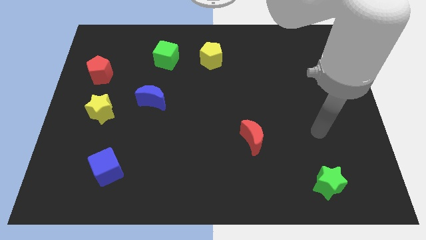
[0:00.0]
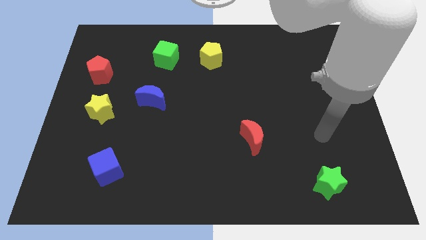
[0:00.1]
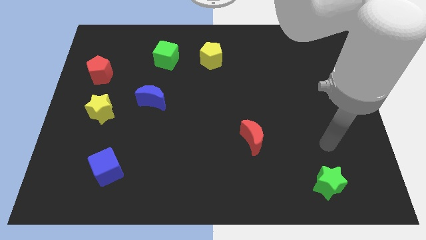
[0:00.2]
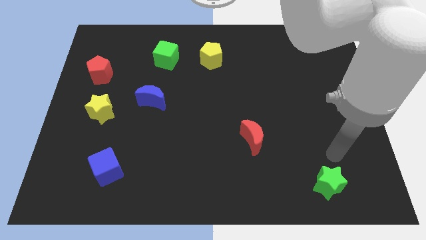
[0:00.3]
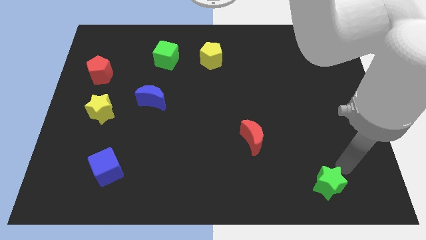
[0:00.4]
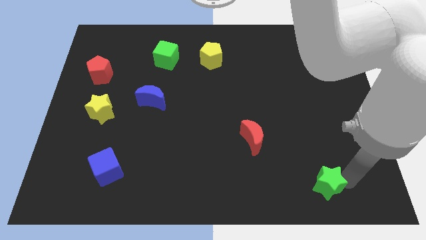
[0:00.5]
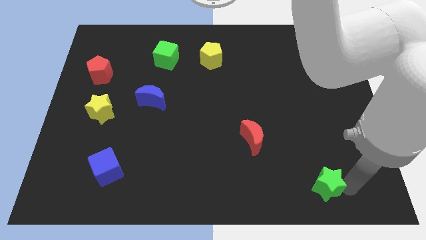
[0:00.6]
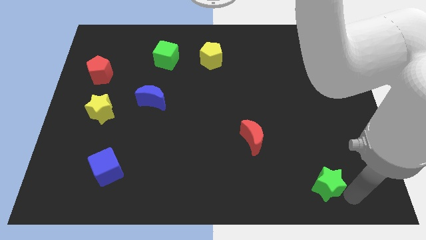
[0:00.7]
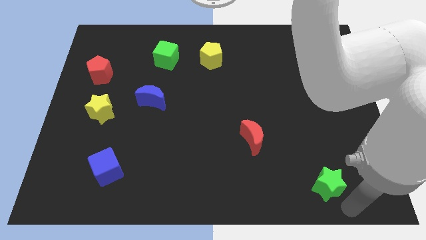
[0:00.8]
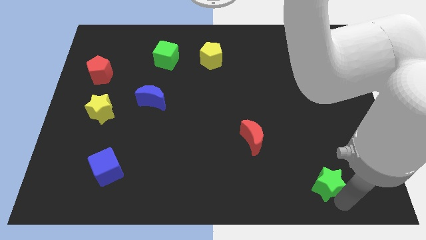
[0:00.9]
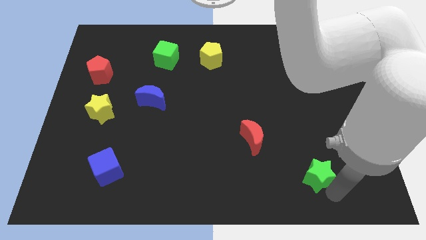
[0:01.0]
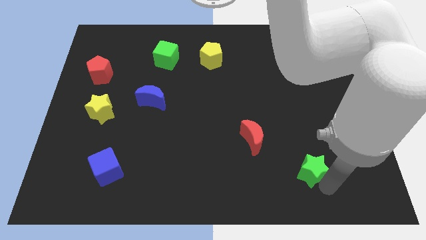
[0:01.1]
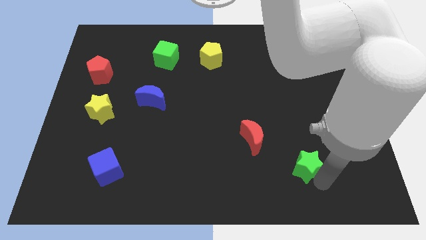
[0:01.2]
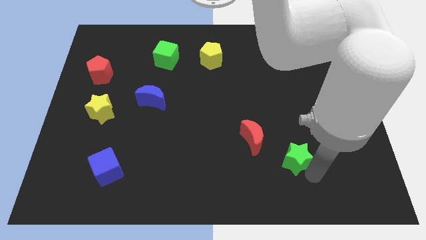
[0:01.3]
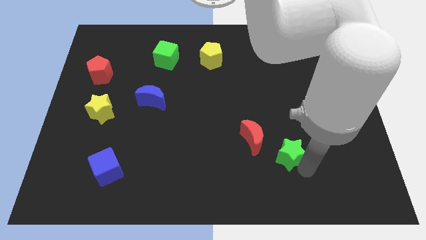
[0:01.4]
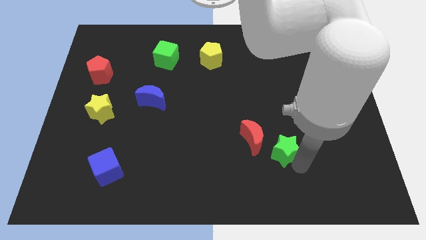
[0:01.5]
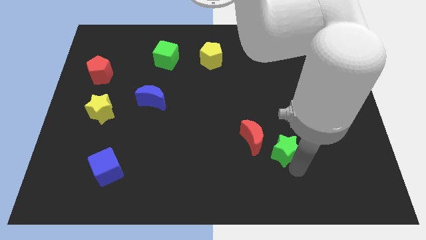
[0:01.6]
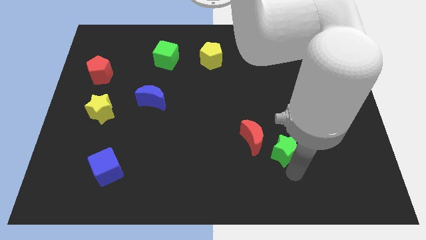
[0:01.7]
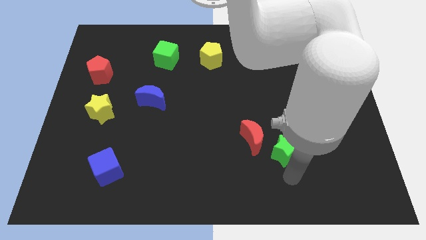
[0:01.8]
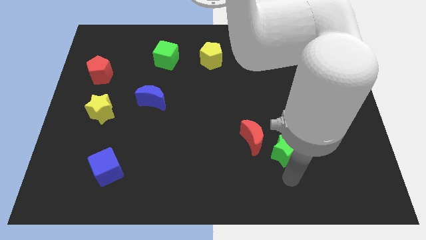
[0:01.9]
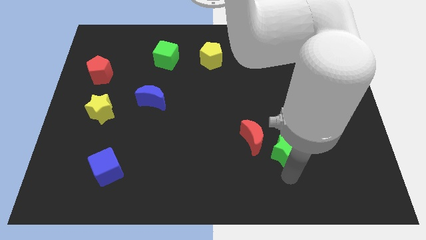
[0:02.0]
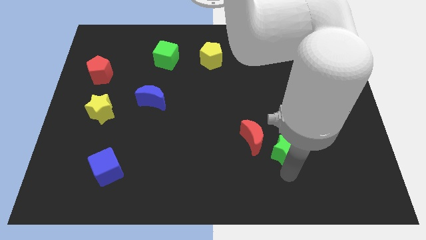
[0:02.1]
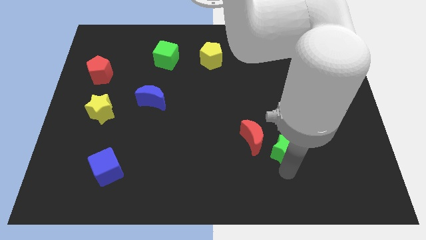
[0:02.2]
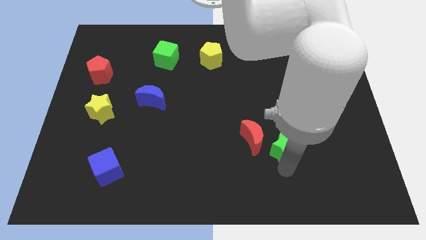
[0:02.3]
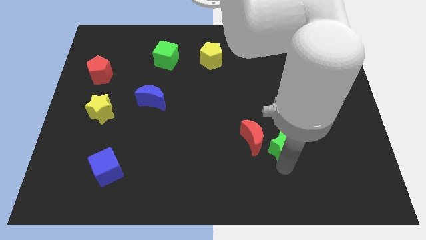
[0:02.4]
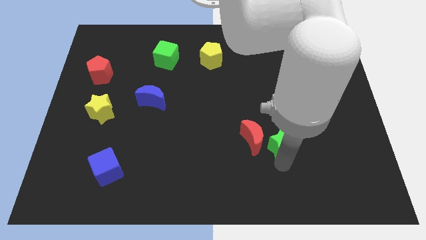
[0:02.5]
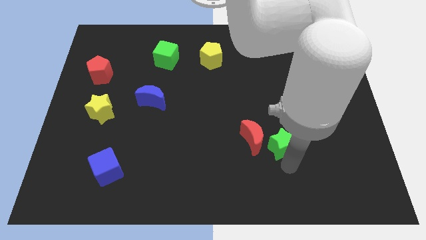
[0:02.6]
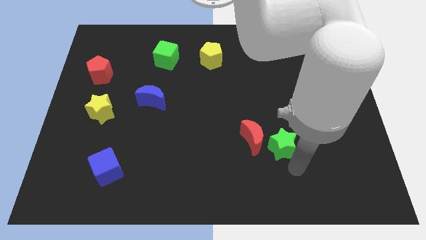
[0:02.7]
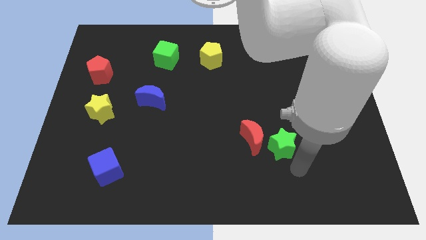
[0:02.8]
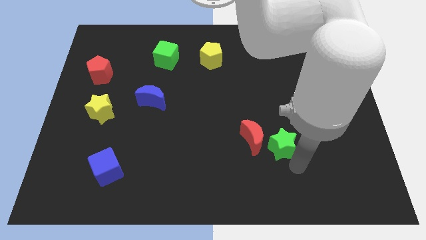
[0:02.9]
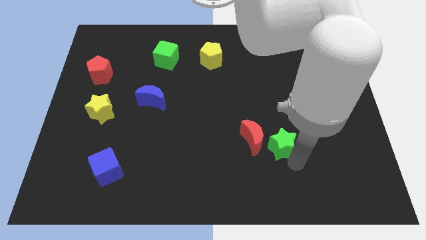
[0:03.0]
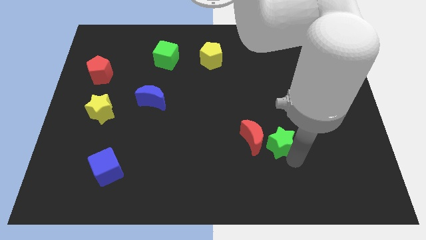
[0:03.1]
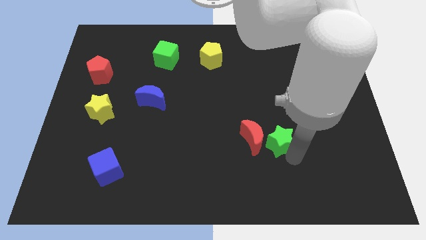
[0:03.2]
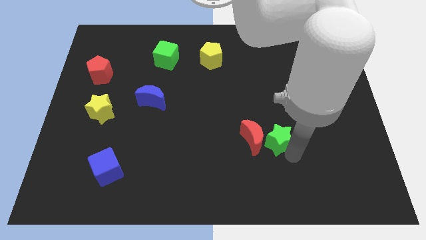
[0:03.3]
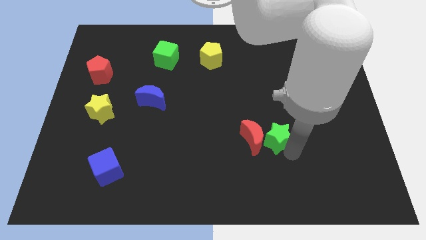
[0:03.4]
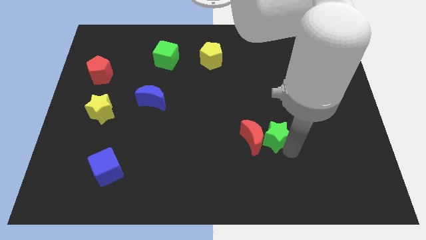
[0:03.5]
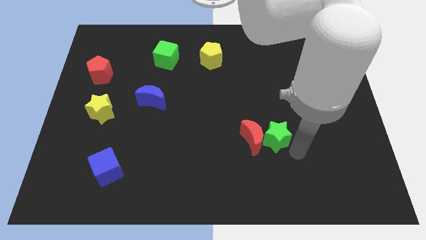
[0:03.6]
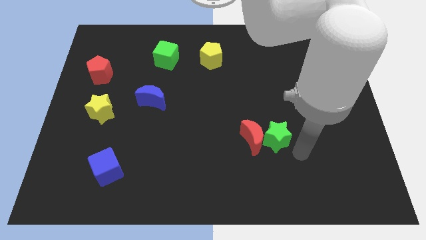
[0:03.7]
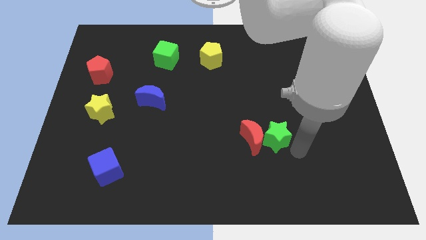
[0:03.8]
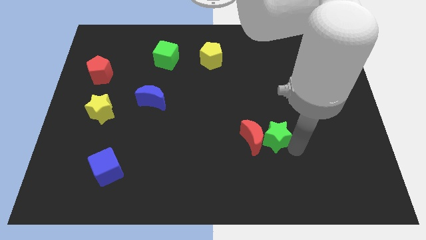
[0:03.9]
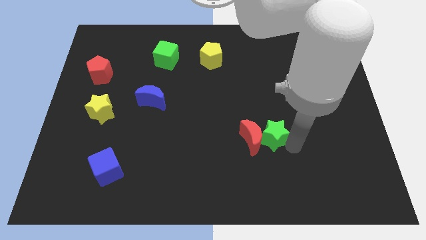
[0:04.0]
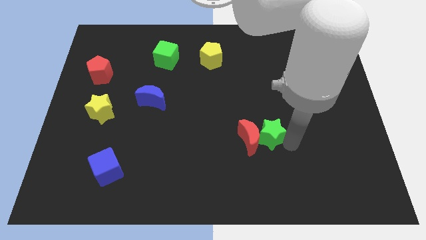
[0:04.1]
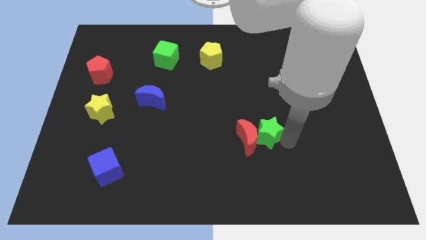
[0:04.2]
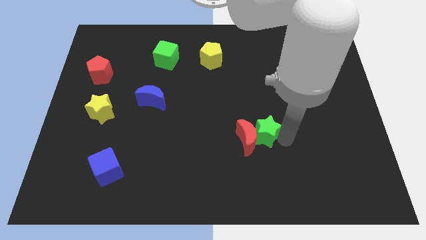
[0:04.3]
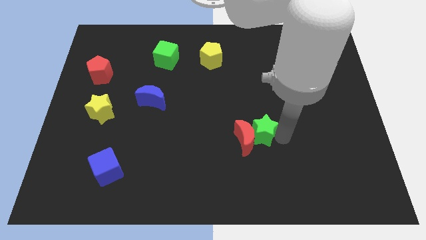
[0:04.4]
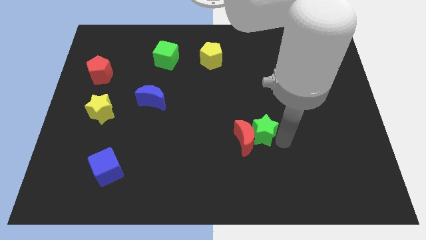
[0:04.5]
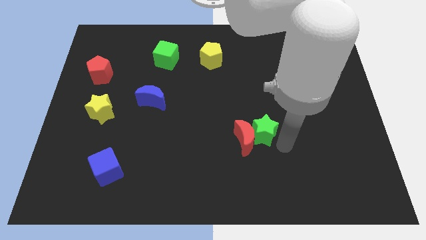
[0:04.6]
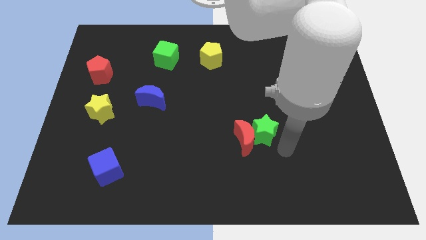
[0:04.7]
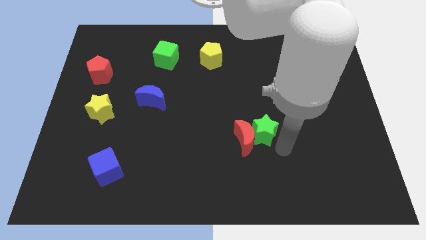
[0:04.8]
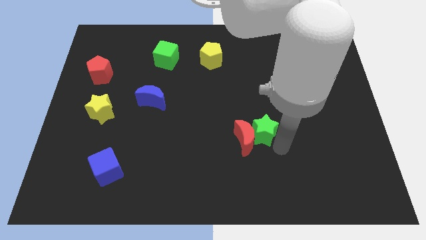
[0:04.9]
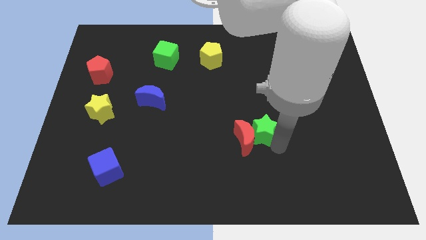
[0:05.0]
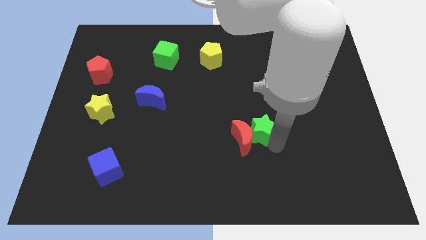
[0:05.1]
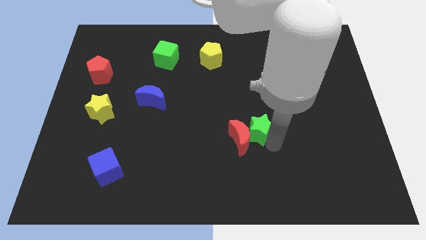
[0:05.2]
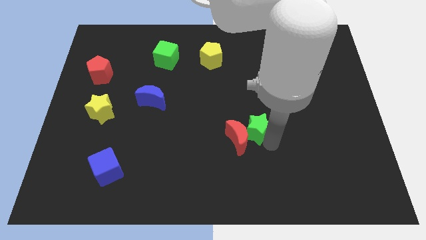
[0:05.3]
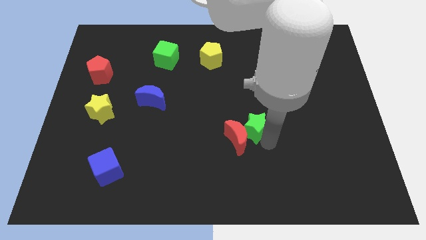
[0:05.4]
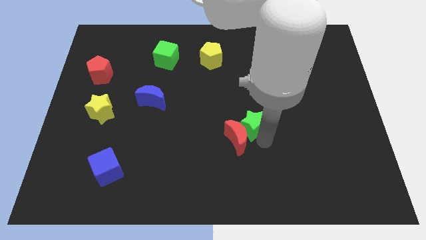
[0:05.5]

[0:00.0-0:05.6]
move the green star upwards and then left

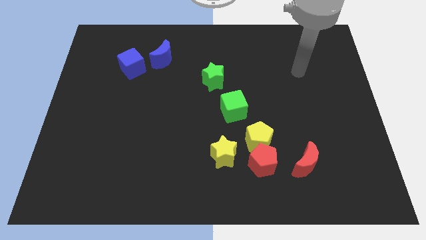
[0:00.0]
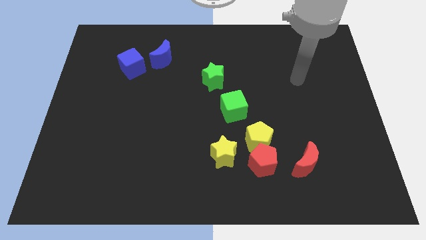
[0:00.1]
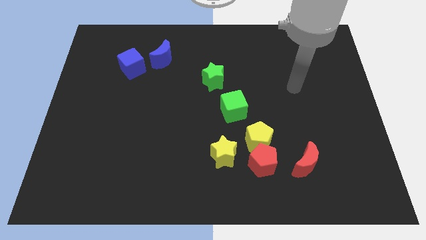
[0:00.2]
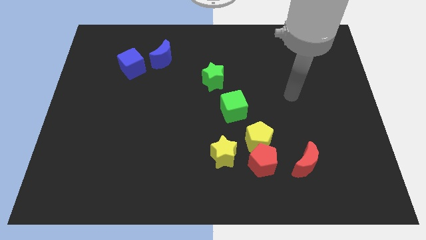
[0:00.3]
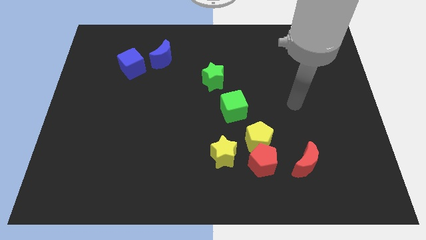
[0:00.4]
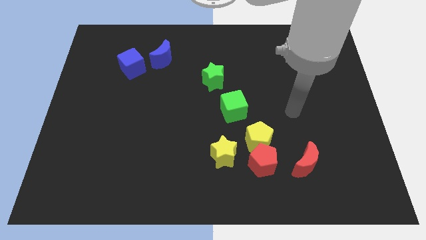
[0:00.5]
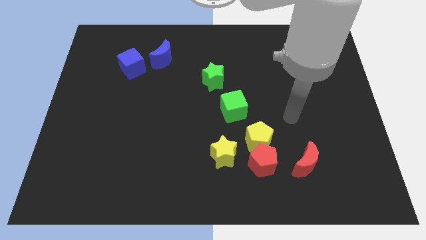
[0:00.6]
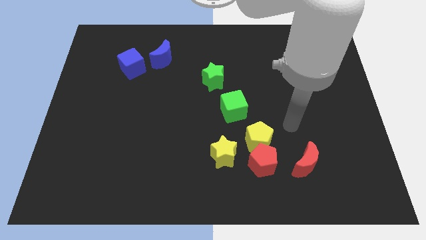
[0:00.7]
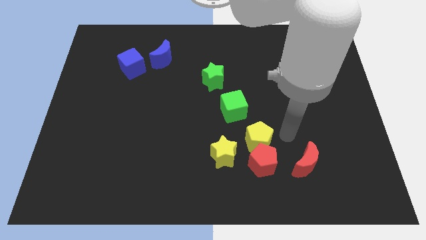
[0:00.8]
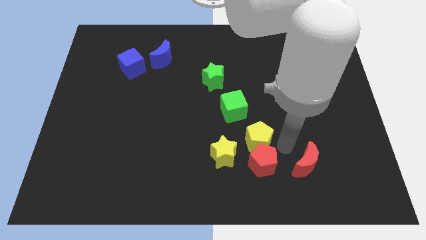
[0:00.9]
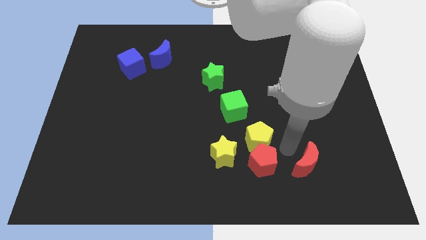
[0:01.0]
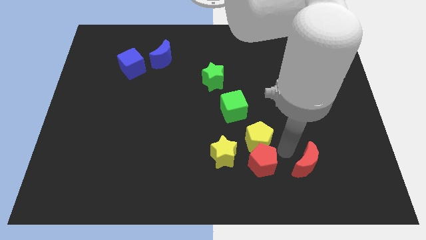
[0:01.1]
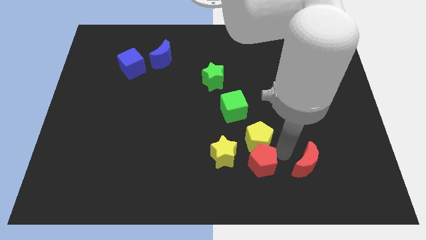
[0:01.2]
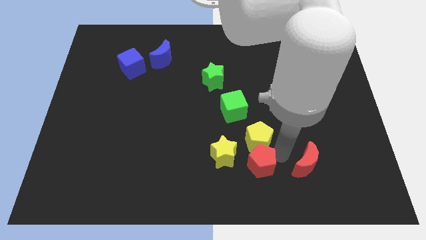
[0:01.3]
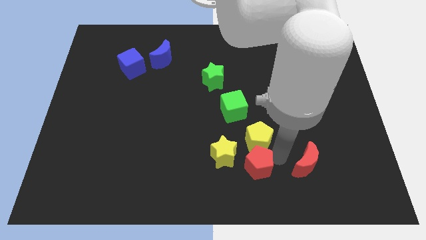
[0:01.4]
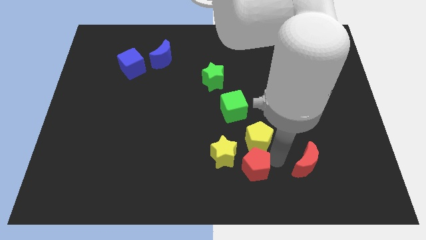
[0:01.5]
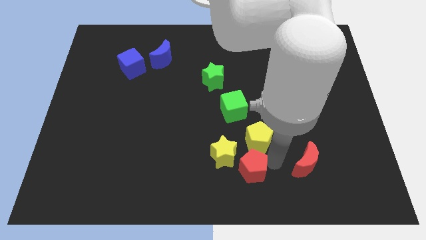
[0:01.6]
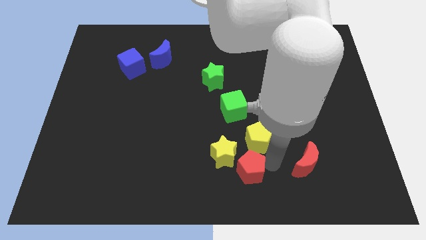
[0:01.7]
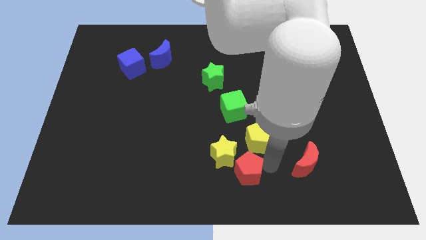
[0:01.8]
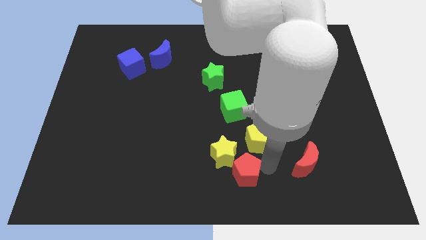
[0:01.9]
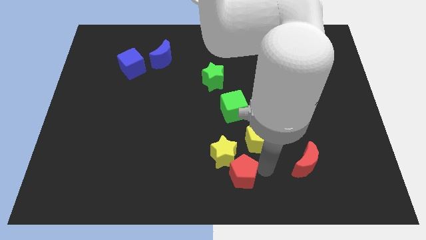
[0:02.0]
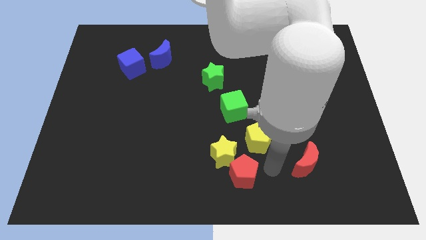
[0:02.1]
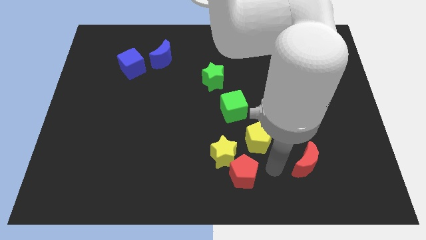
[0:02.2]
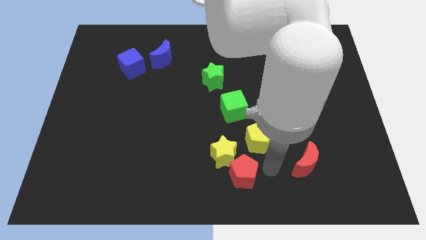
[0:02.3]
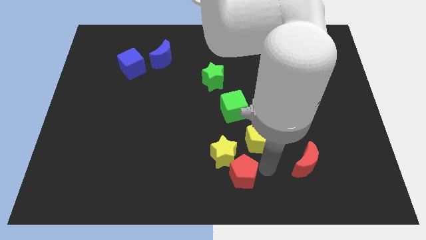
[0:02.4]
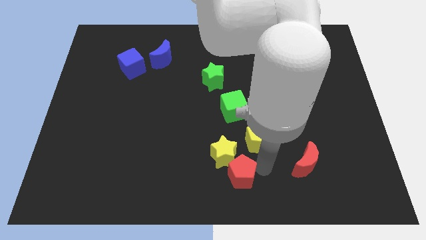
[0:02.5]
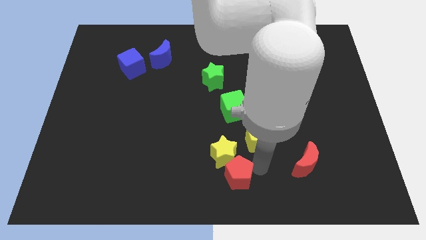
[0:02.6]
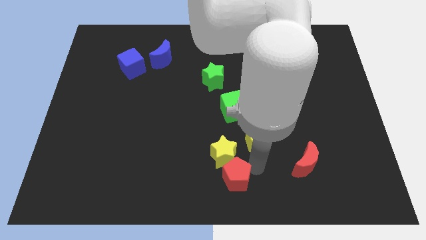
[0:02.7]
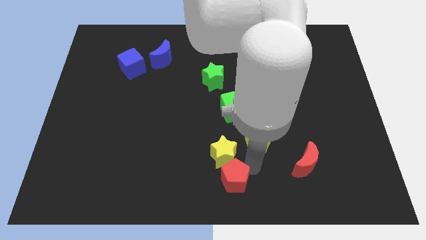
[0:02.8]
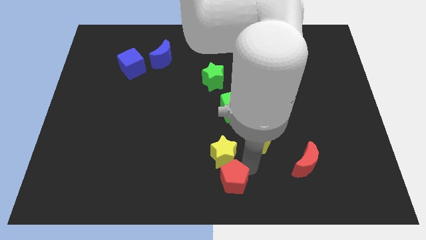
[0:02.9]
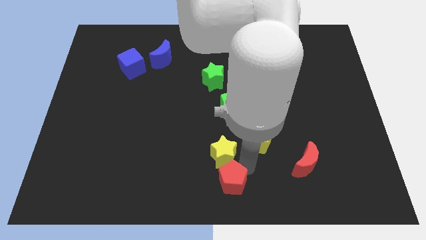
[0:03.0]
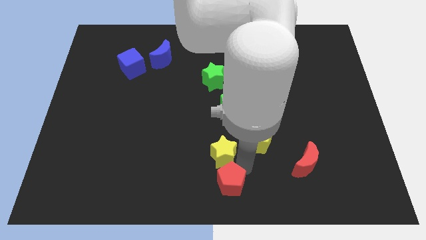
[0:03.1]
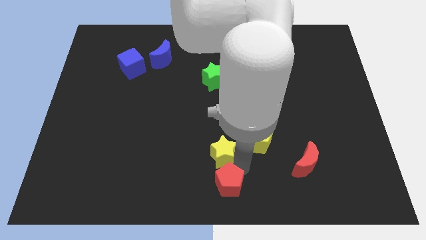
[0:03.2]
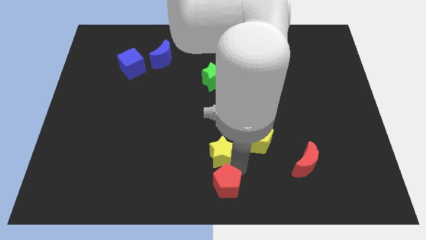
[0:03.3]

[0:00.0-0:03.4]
slightly slide the red pentagon left
